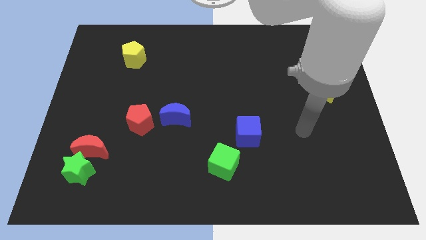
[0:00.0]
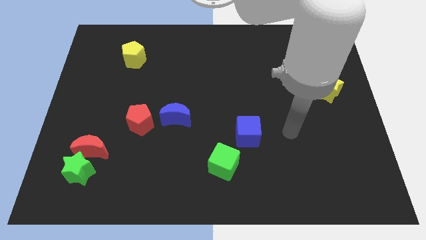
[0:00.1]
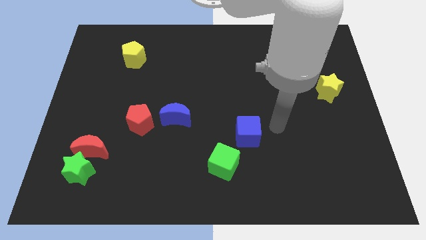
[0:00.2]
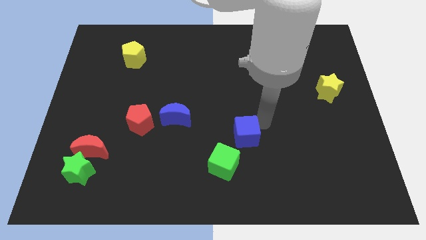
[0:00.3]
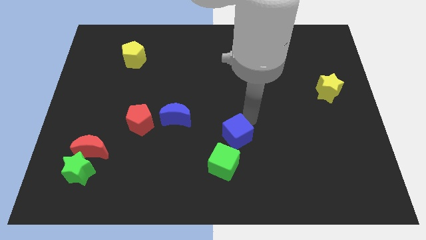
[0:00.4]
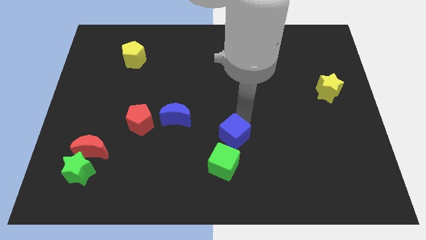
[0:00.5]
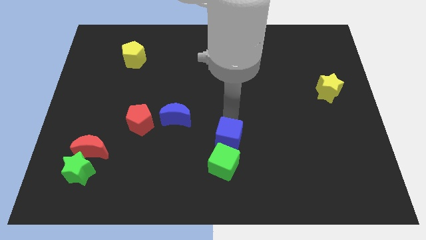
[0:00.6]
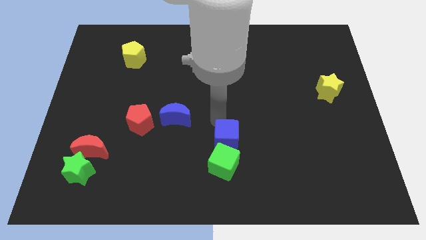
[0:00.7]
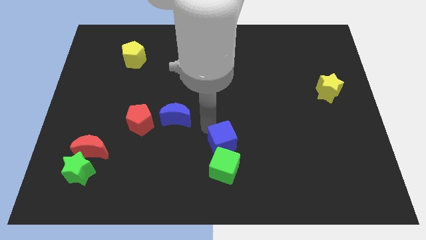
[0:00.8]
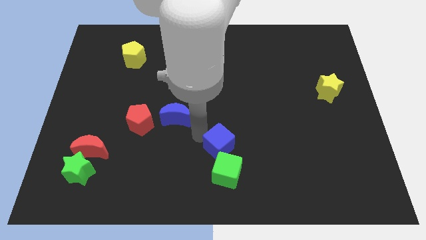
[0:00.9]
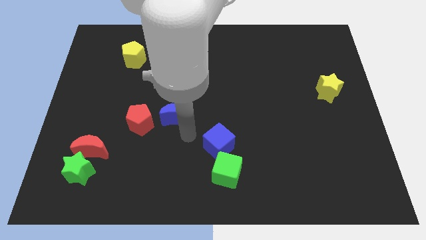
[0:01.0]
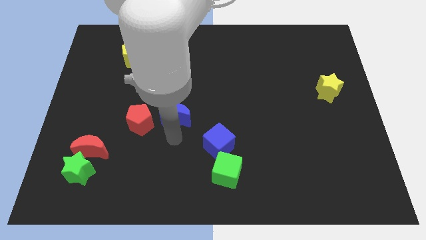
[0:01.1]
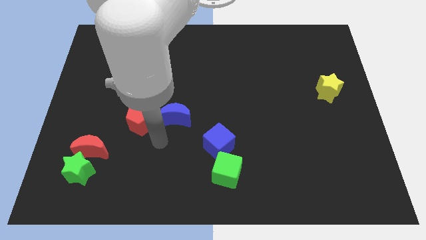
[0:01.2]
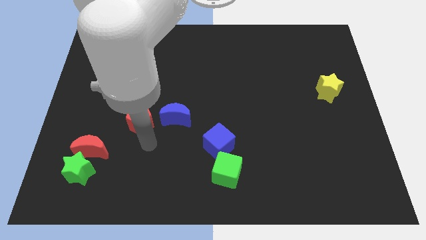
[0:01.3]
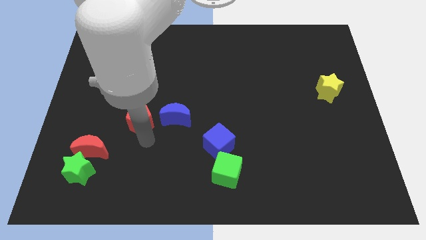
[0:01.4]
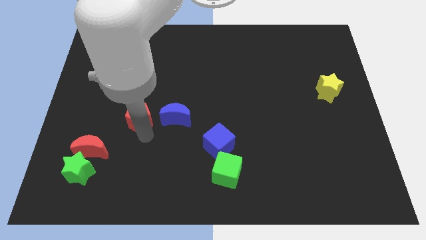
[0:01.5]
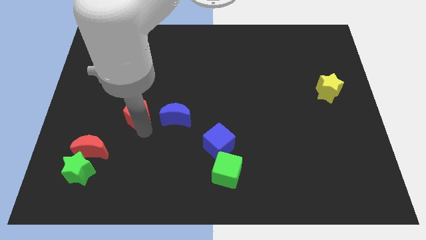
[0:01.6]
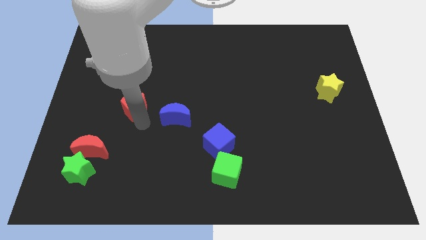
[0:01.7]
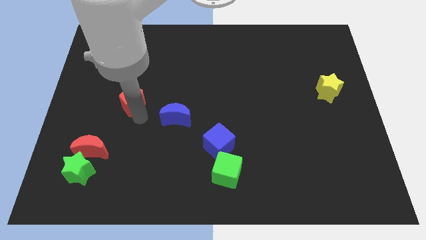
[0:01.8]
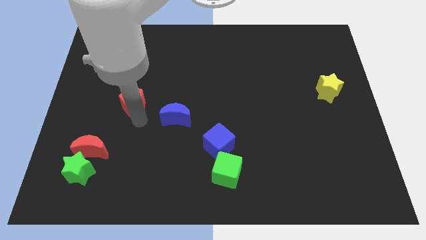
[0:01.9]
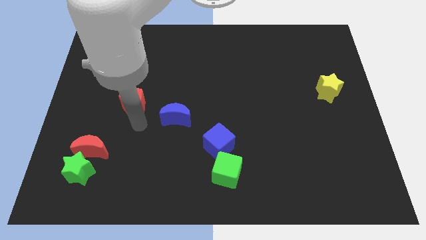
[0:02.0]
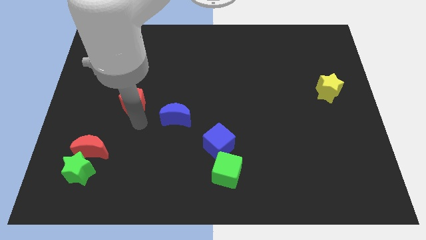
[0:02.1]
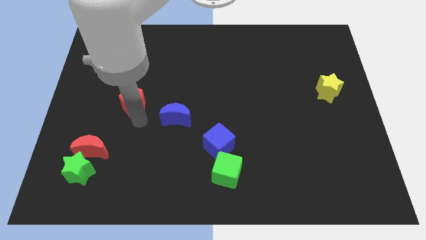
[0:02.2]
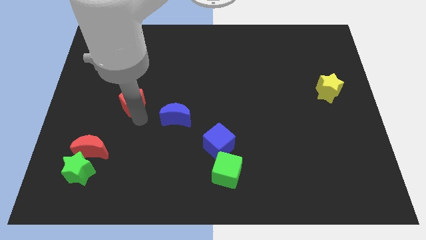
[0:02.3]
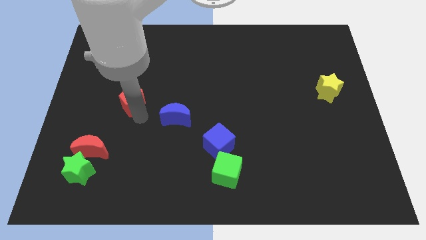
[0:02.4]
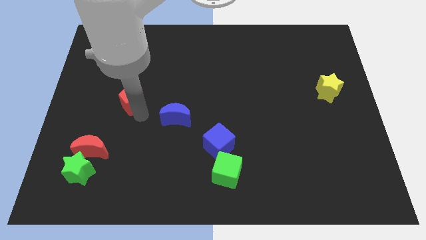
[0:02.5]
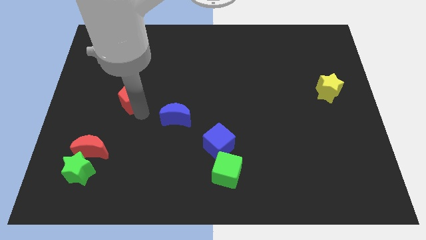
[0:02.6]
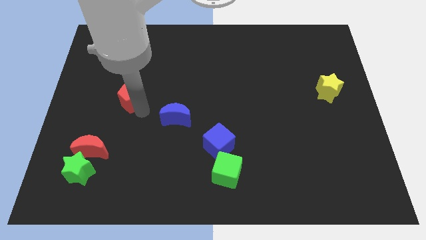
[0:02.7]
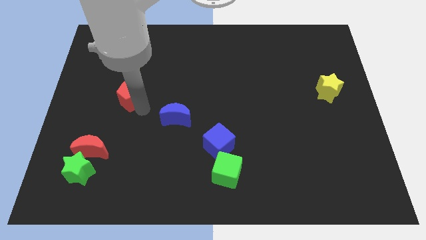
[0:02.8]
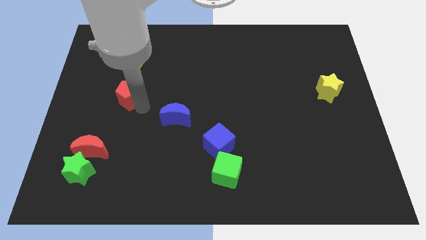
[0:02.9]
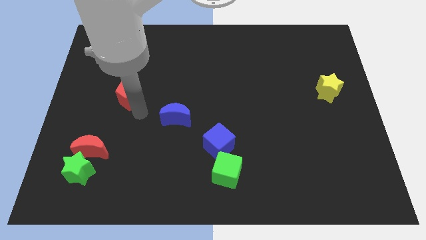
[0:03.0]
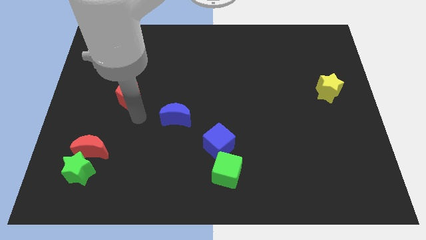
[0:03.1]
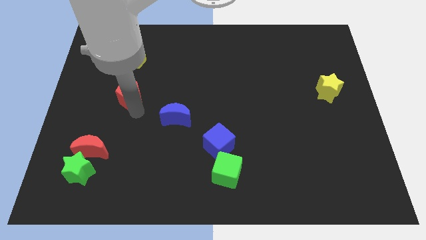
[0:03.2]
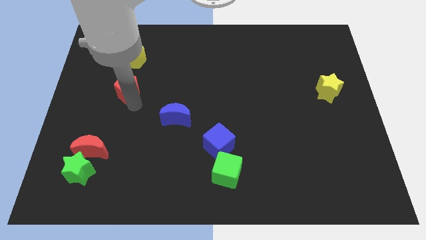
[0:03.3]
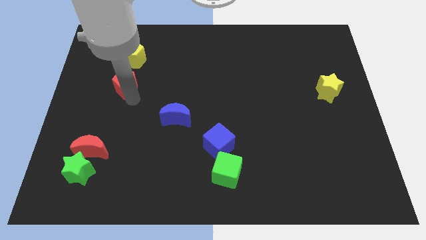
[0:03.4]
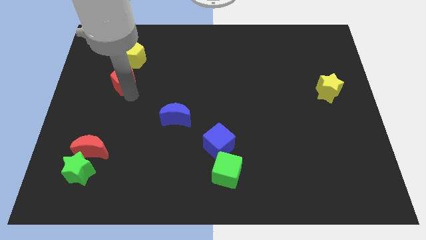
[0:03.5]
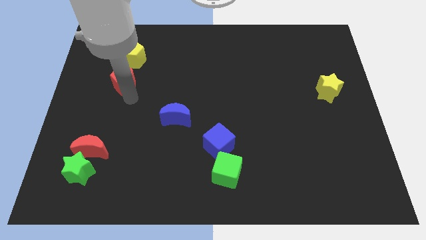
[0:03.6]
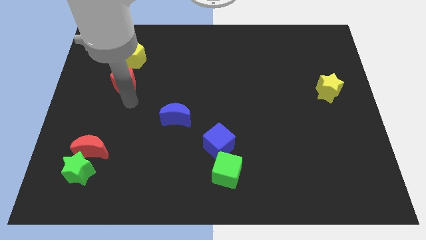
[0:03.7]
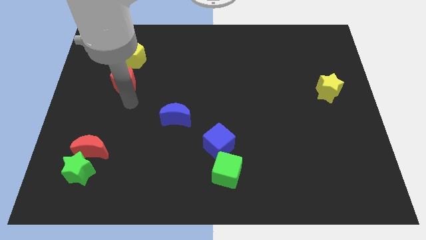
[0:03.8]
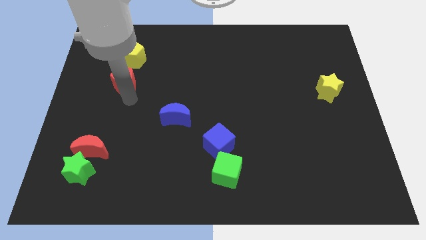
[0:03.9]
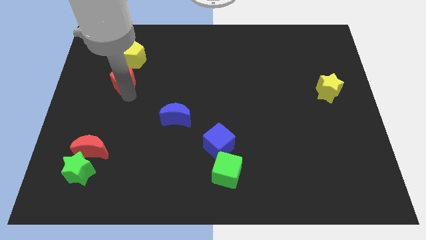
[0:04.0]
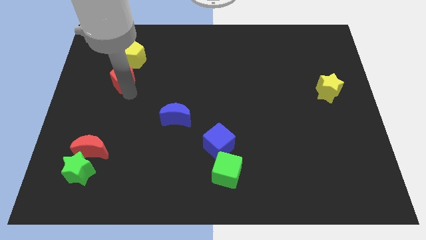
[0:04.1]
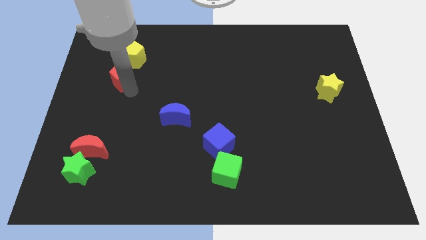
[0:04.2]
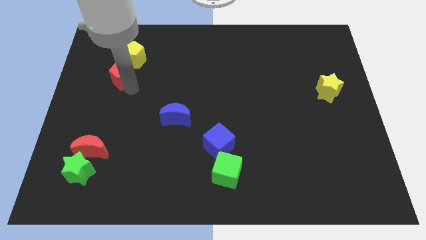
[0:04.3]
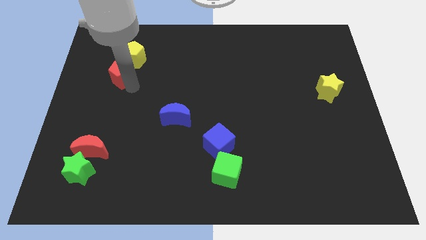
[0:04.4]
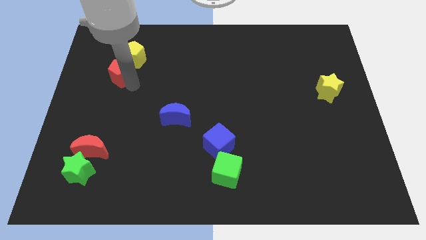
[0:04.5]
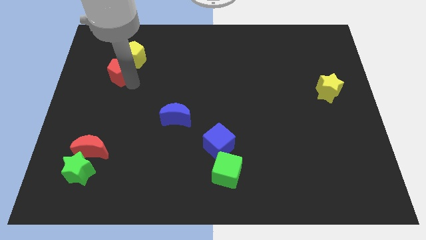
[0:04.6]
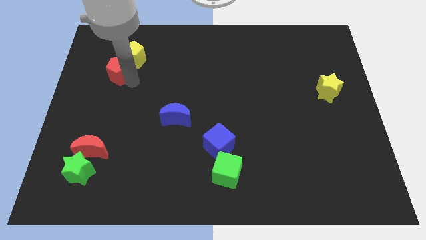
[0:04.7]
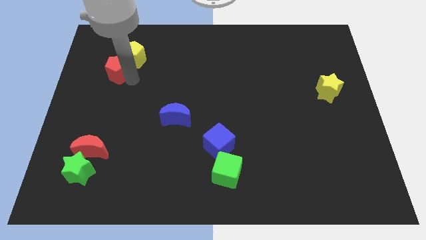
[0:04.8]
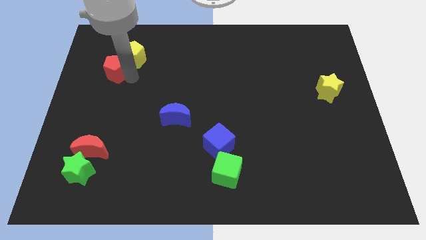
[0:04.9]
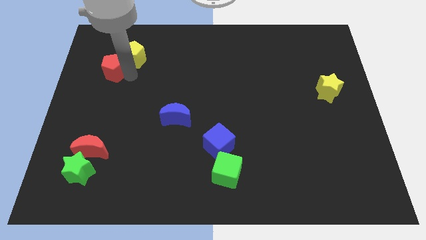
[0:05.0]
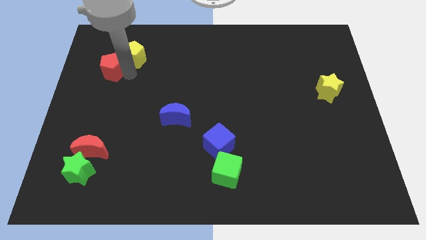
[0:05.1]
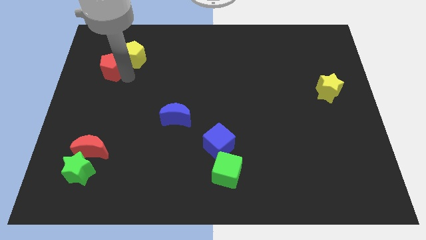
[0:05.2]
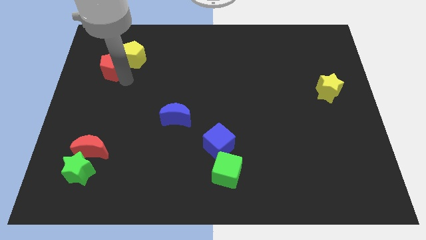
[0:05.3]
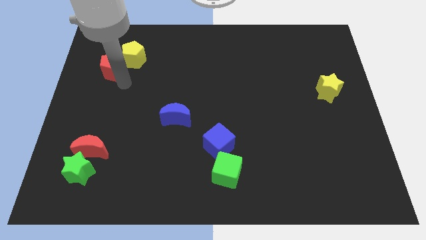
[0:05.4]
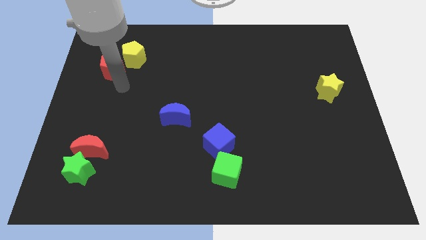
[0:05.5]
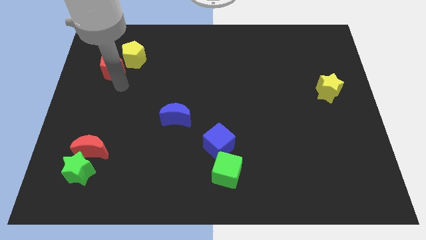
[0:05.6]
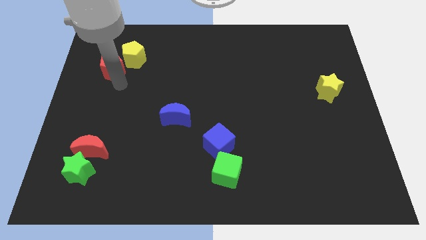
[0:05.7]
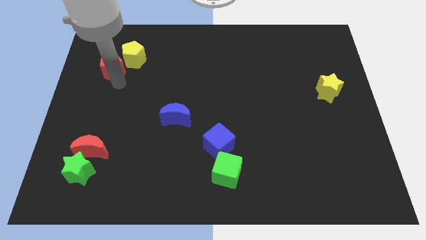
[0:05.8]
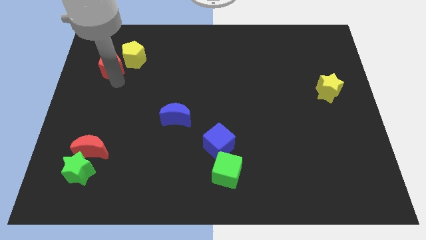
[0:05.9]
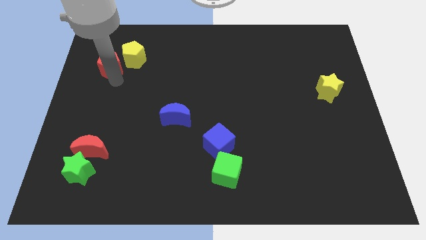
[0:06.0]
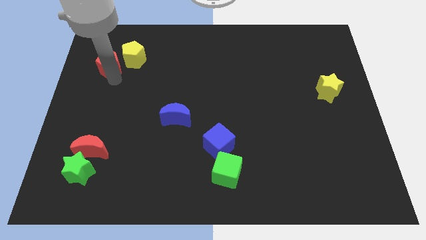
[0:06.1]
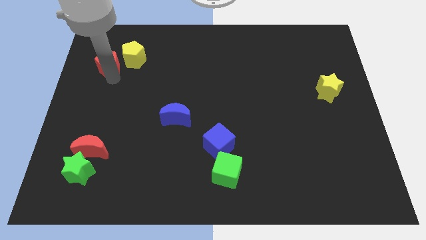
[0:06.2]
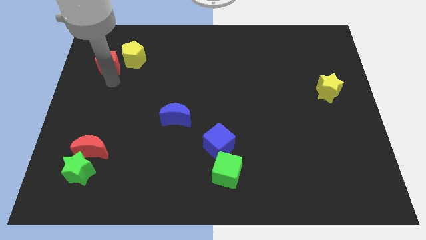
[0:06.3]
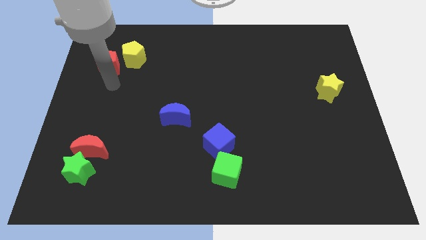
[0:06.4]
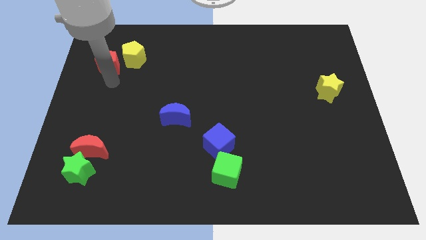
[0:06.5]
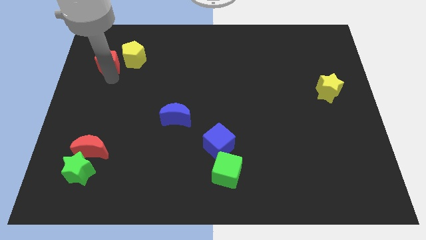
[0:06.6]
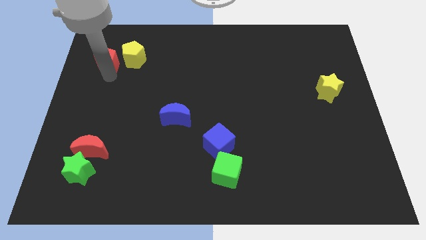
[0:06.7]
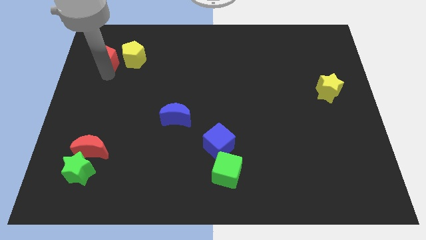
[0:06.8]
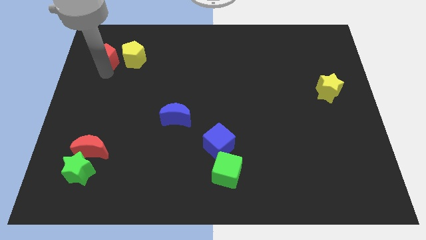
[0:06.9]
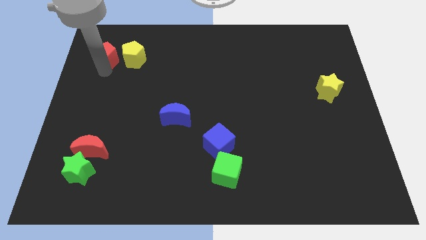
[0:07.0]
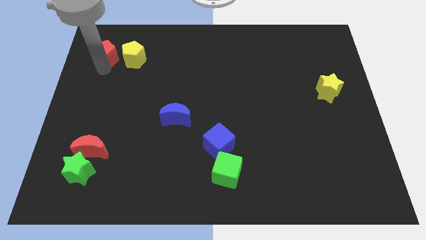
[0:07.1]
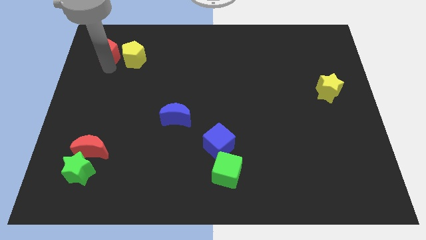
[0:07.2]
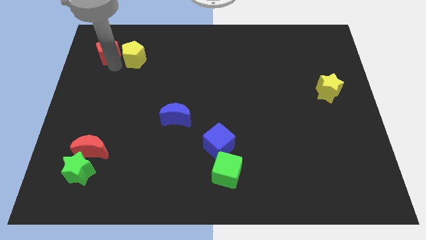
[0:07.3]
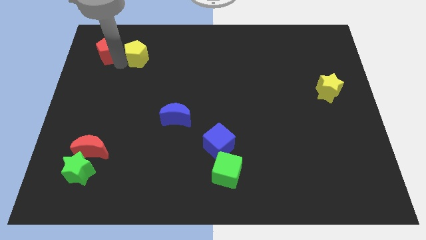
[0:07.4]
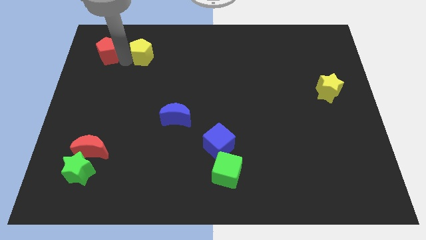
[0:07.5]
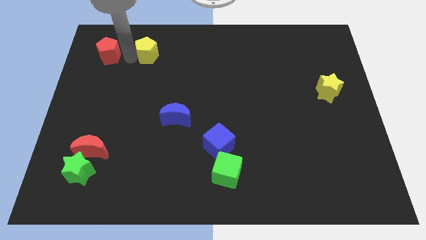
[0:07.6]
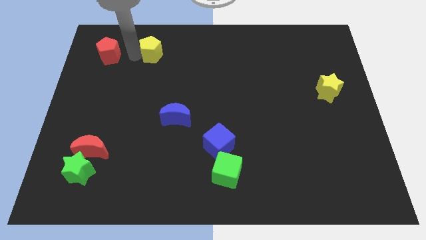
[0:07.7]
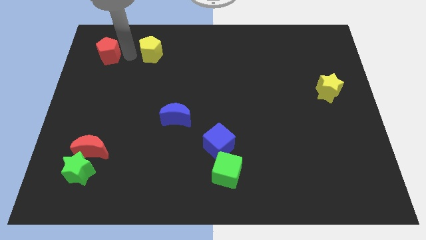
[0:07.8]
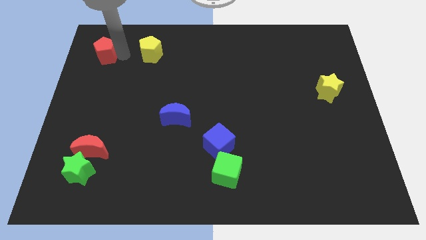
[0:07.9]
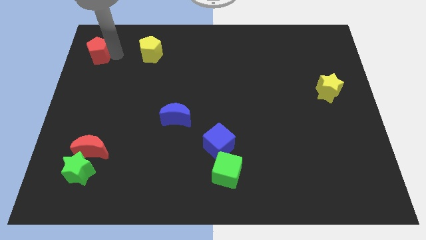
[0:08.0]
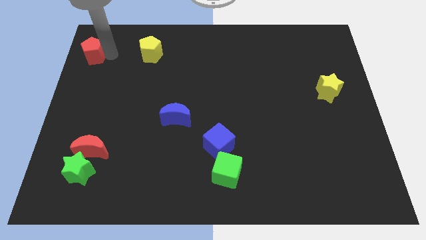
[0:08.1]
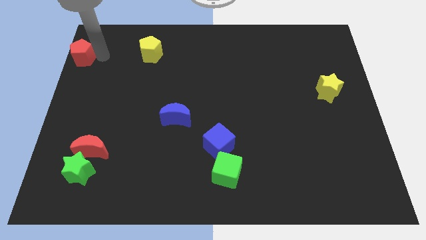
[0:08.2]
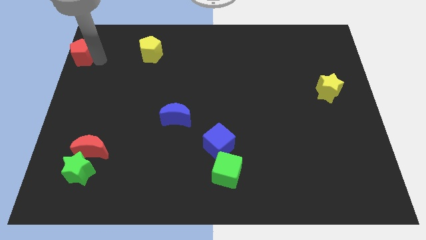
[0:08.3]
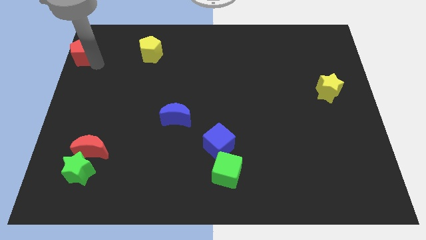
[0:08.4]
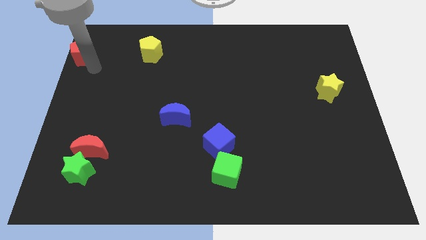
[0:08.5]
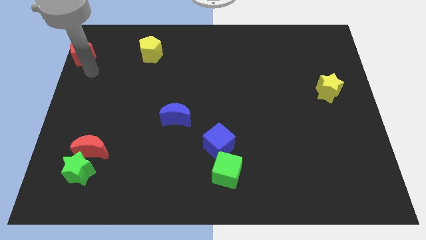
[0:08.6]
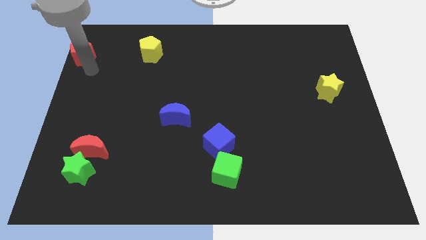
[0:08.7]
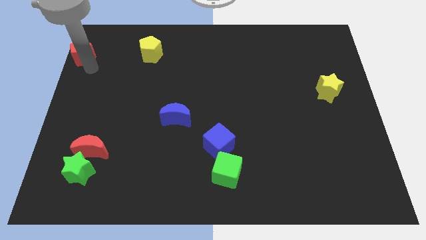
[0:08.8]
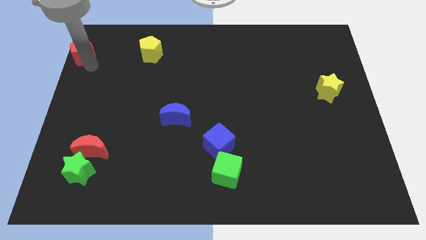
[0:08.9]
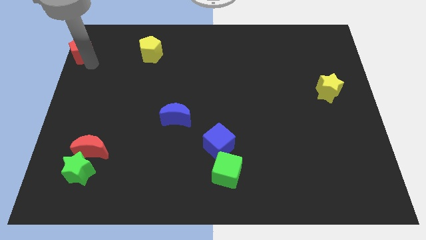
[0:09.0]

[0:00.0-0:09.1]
move the red pentagon to the top left
